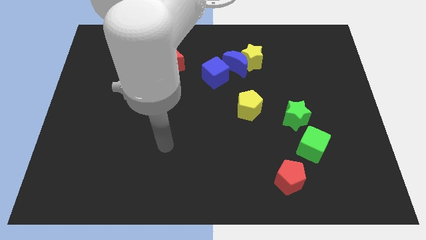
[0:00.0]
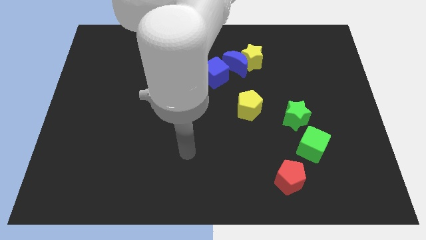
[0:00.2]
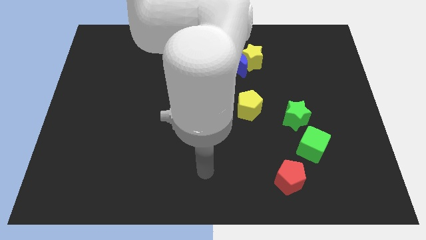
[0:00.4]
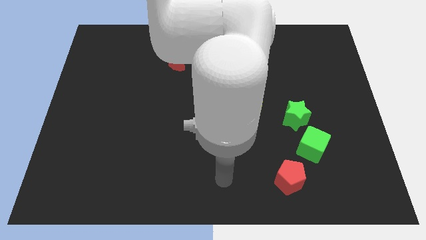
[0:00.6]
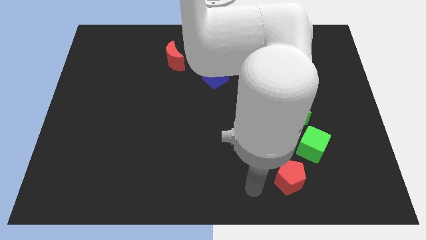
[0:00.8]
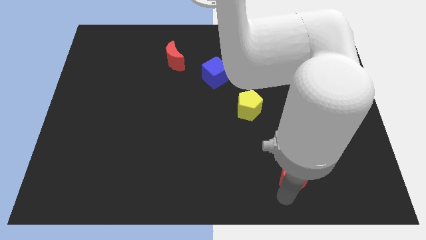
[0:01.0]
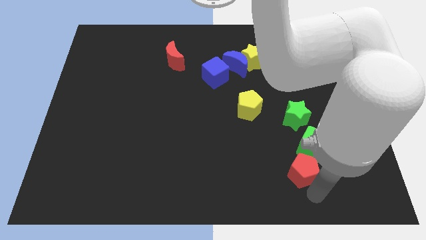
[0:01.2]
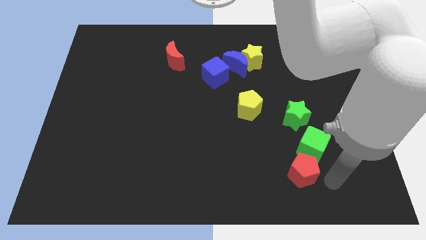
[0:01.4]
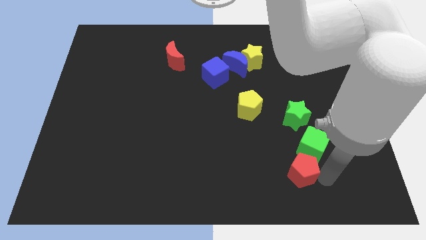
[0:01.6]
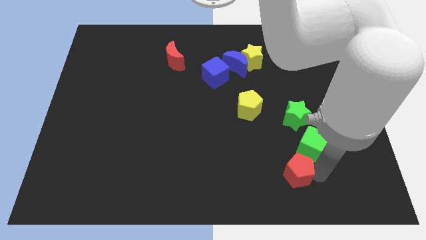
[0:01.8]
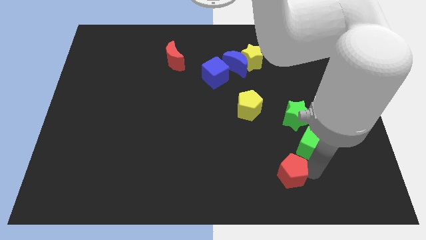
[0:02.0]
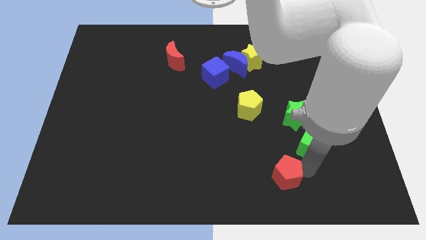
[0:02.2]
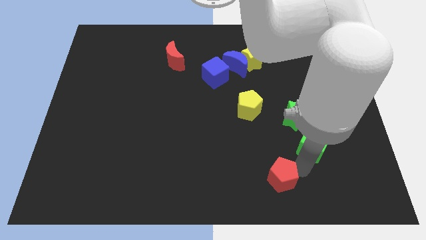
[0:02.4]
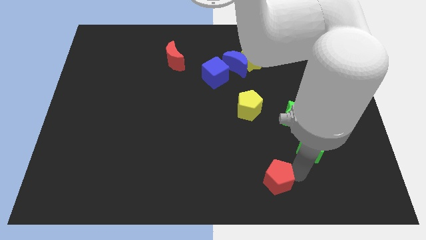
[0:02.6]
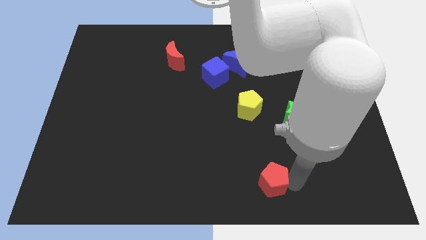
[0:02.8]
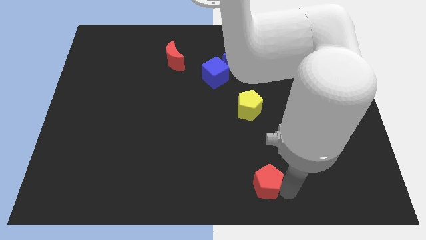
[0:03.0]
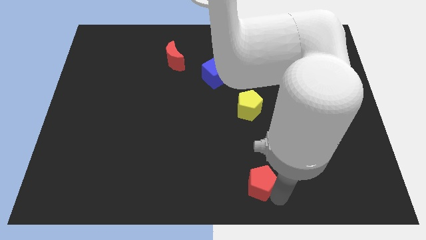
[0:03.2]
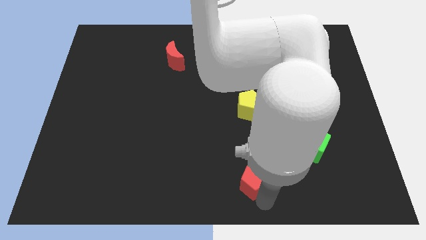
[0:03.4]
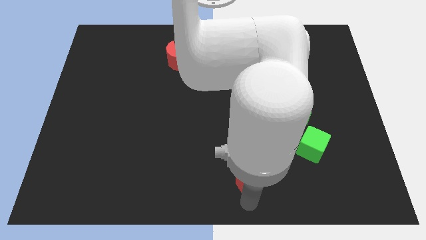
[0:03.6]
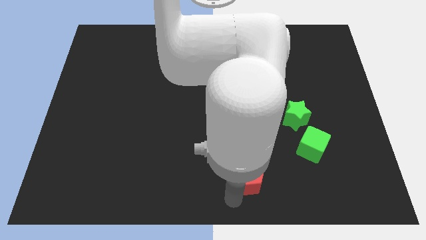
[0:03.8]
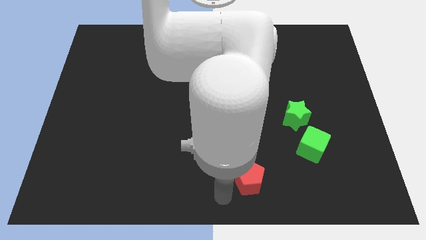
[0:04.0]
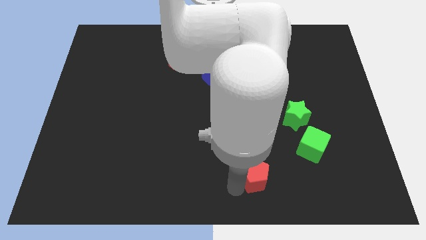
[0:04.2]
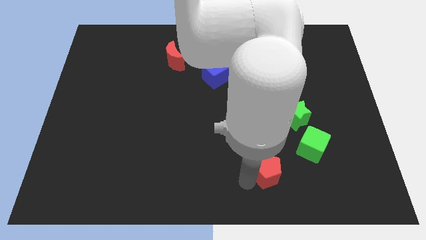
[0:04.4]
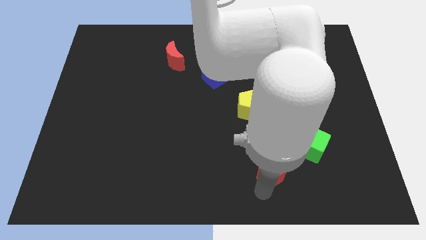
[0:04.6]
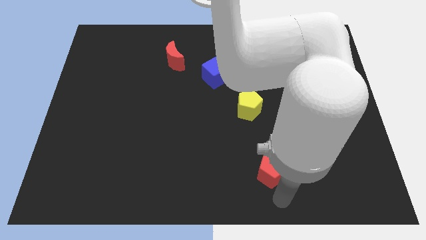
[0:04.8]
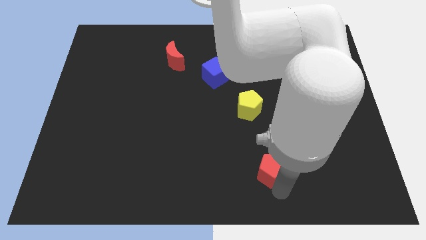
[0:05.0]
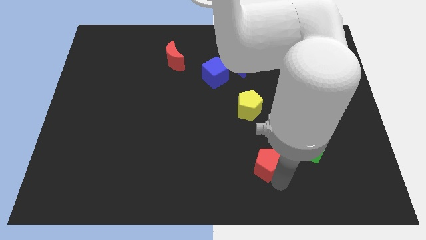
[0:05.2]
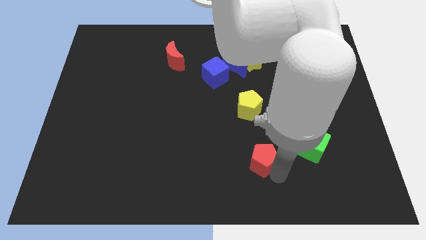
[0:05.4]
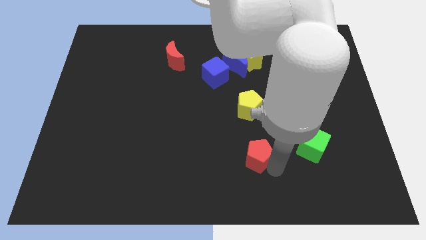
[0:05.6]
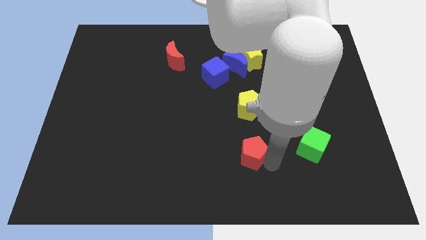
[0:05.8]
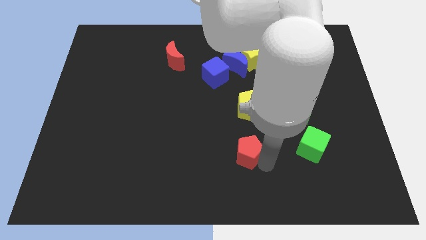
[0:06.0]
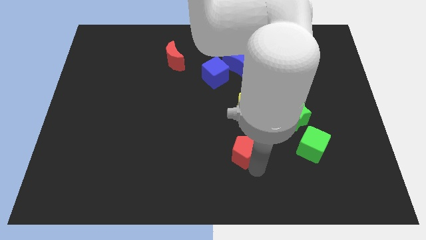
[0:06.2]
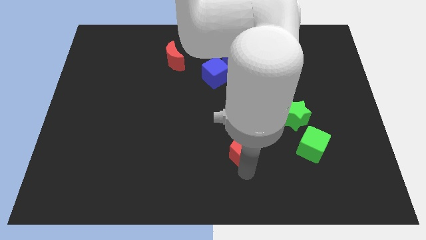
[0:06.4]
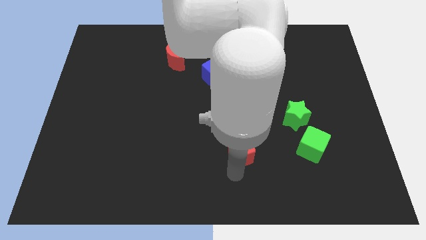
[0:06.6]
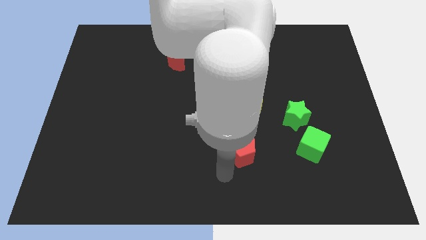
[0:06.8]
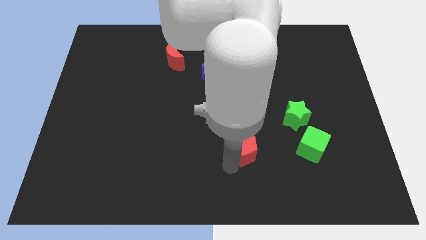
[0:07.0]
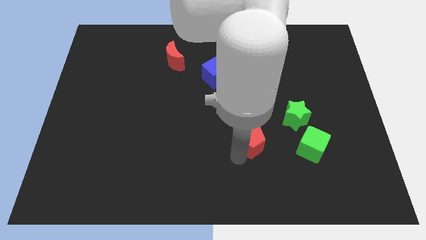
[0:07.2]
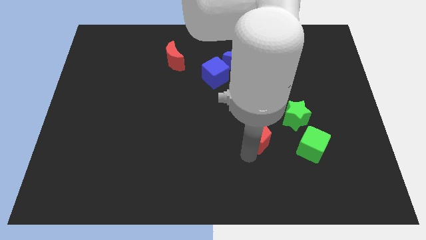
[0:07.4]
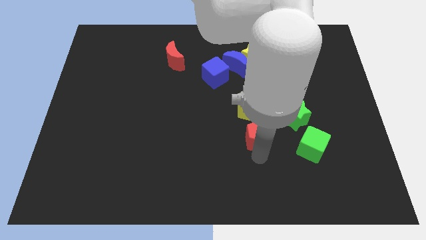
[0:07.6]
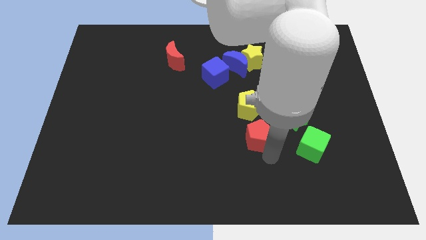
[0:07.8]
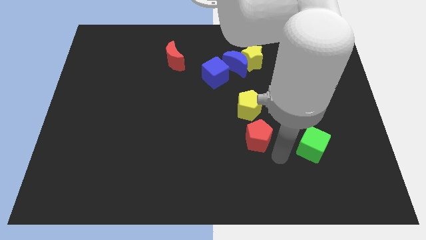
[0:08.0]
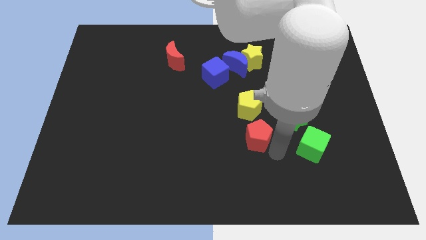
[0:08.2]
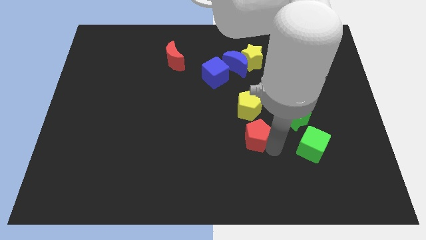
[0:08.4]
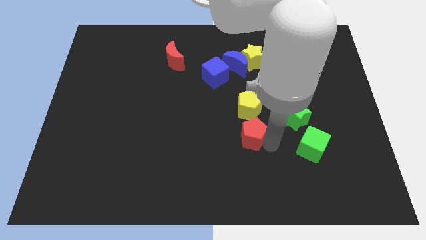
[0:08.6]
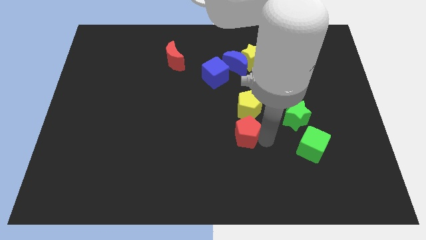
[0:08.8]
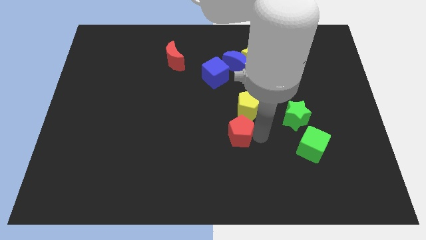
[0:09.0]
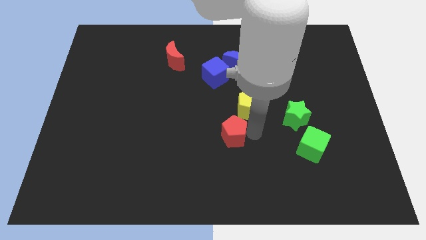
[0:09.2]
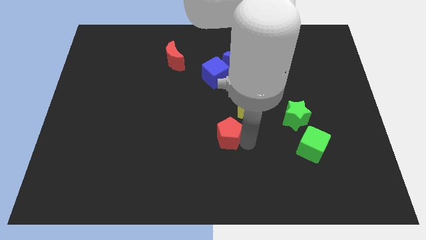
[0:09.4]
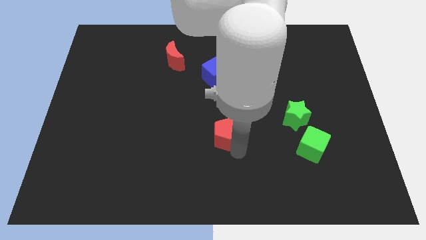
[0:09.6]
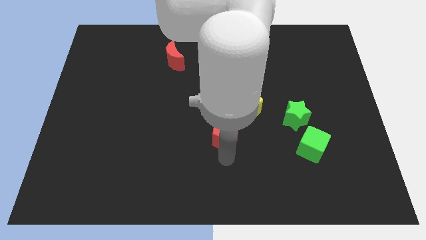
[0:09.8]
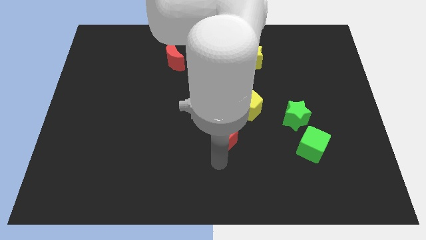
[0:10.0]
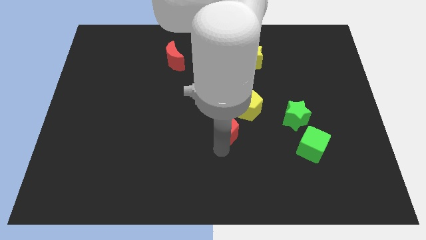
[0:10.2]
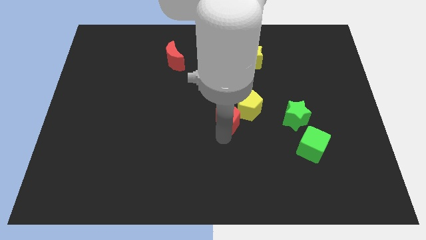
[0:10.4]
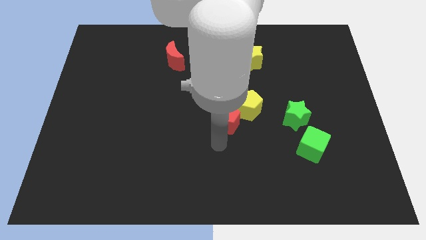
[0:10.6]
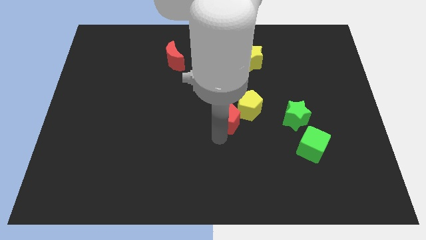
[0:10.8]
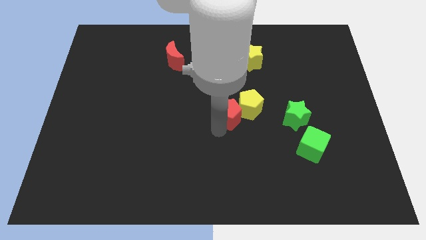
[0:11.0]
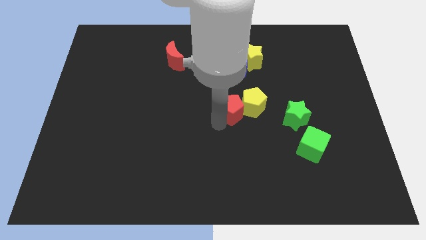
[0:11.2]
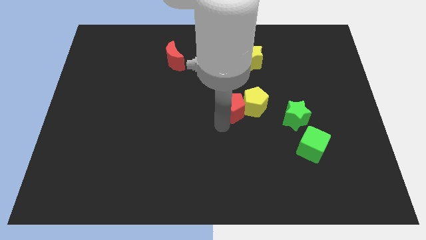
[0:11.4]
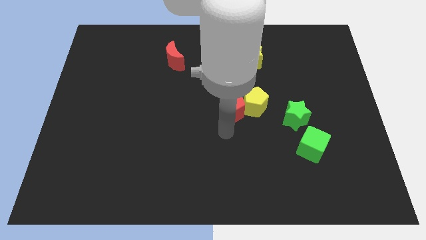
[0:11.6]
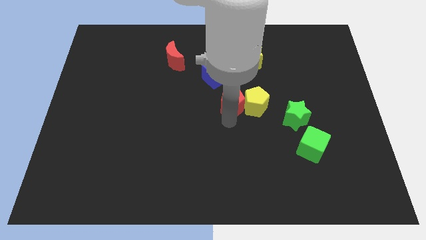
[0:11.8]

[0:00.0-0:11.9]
put the red pentagon to the bottom right of the blue cube
